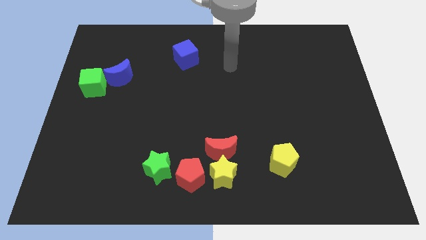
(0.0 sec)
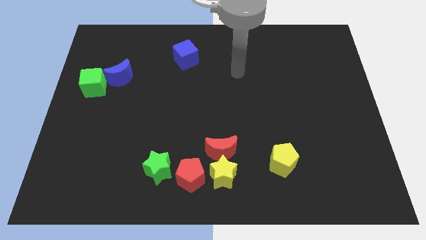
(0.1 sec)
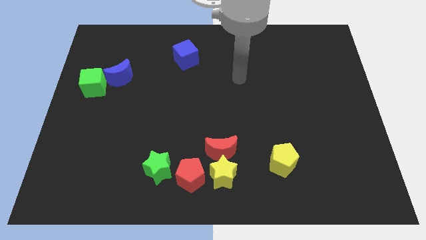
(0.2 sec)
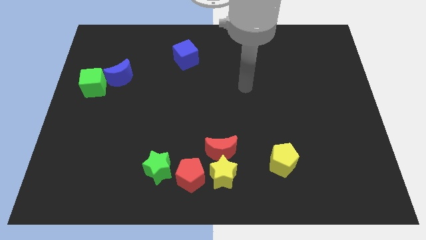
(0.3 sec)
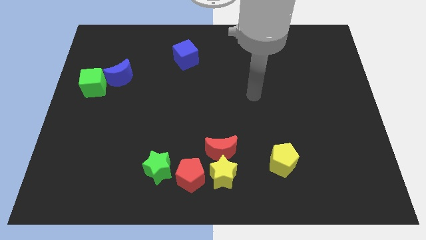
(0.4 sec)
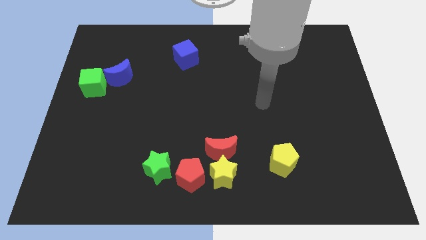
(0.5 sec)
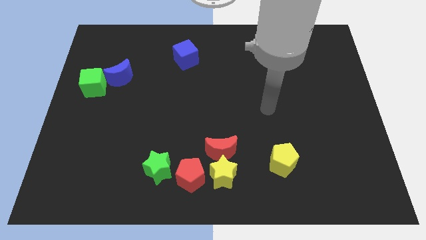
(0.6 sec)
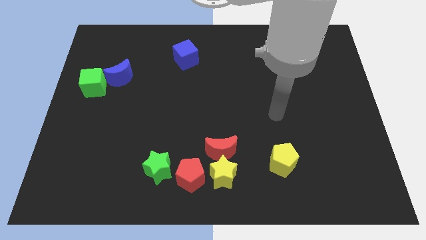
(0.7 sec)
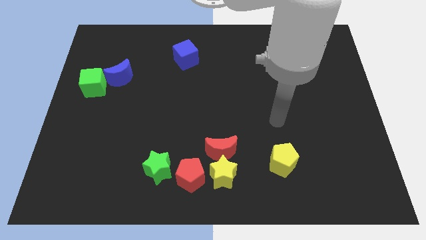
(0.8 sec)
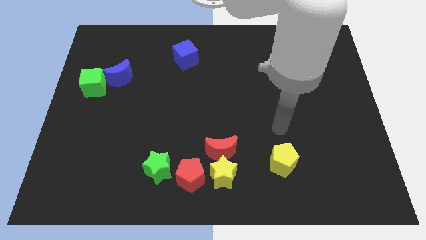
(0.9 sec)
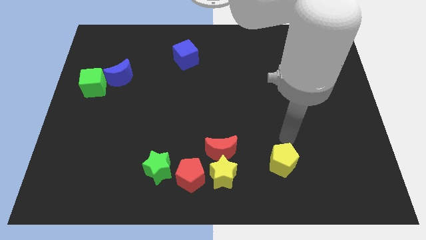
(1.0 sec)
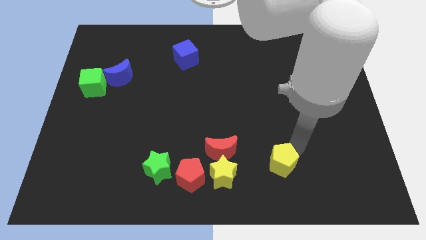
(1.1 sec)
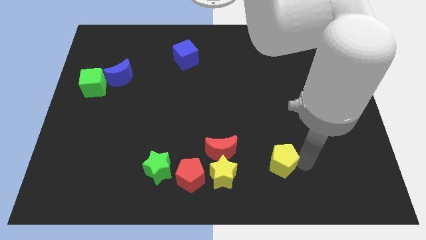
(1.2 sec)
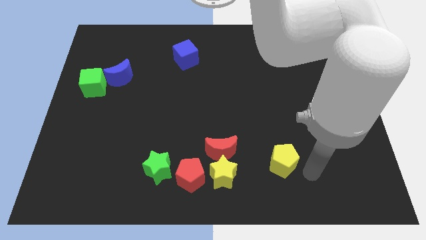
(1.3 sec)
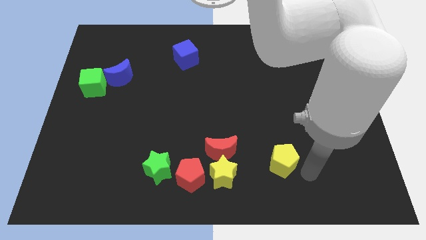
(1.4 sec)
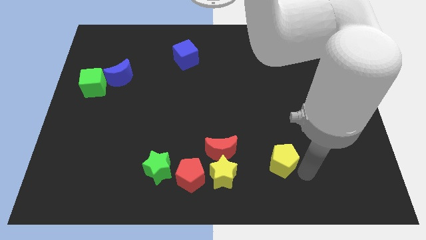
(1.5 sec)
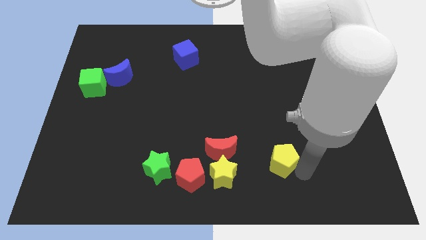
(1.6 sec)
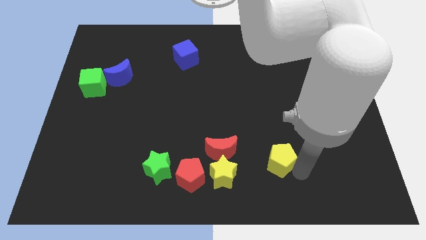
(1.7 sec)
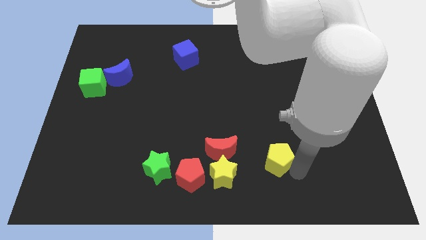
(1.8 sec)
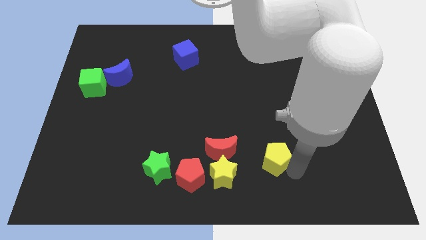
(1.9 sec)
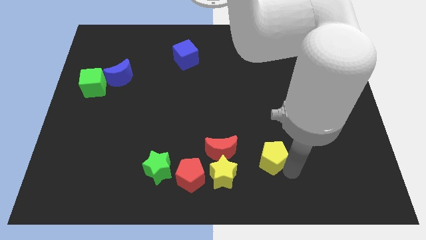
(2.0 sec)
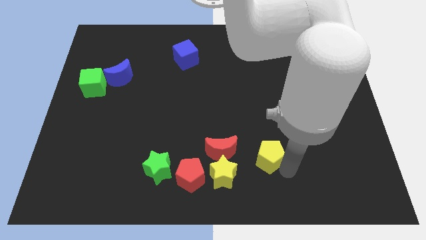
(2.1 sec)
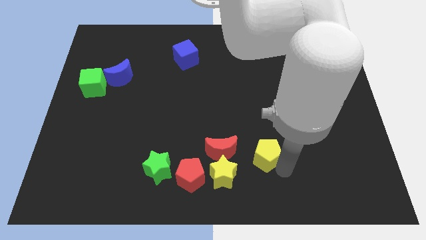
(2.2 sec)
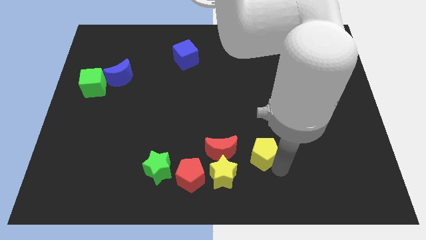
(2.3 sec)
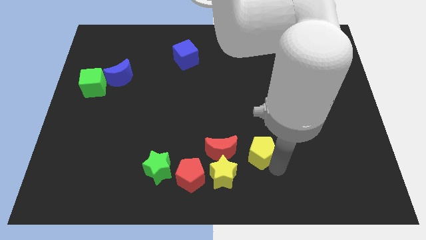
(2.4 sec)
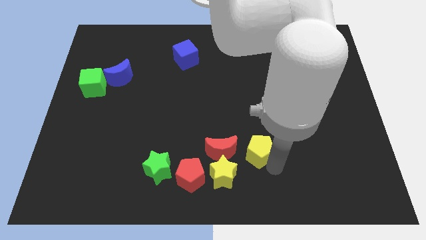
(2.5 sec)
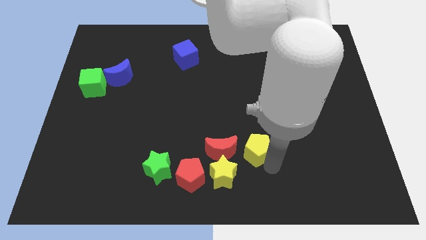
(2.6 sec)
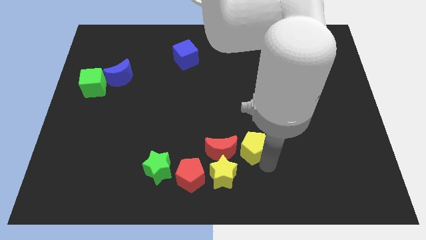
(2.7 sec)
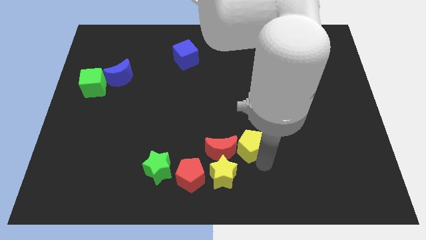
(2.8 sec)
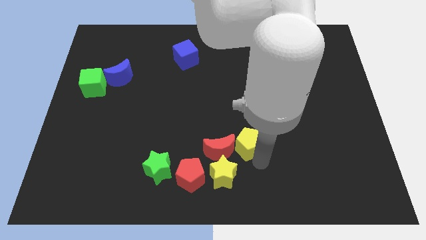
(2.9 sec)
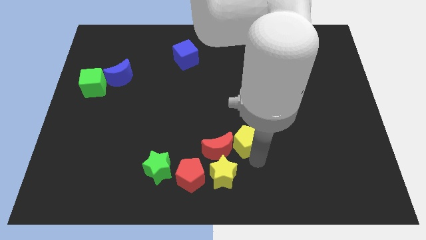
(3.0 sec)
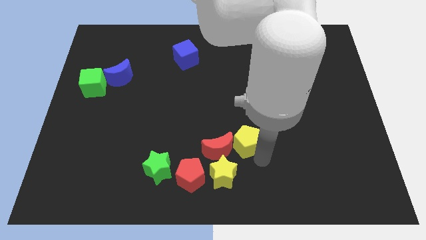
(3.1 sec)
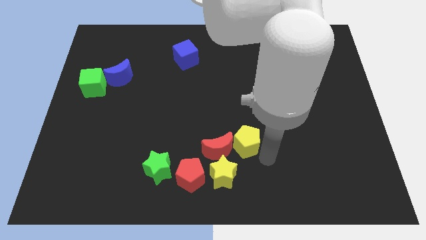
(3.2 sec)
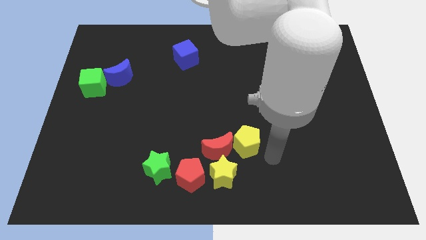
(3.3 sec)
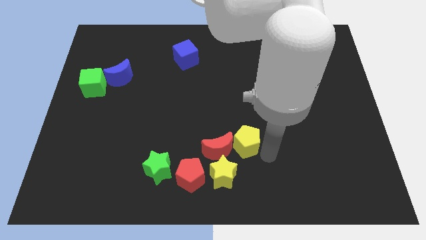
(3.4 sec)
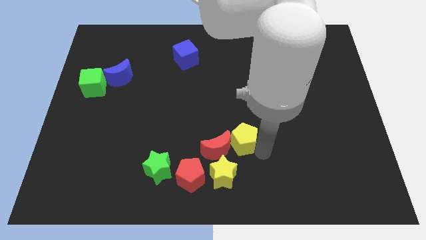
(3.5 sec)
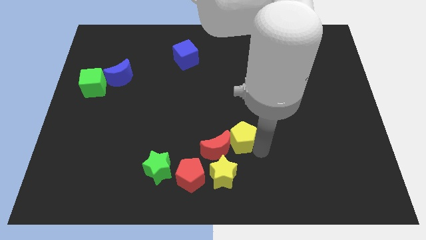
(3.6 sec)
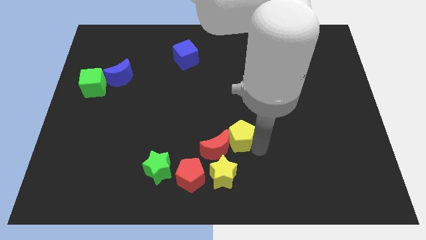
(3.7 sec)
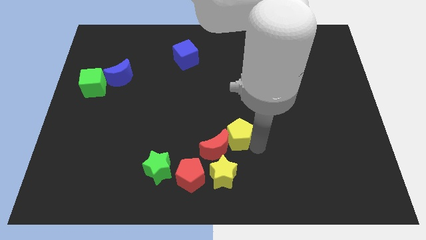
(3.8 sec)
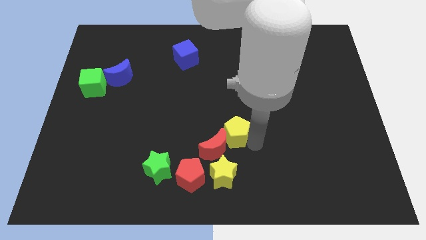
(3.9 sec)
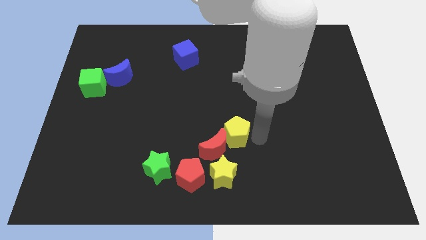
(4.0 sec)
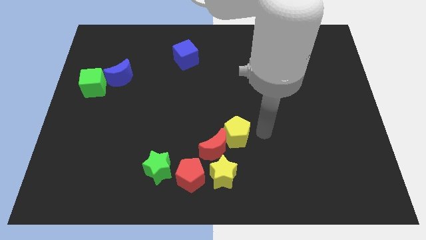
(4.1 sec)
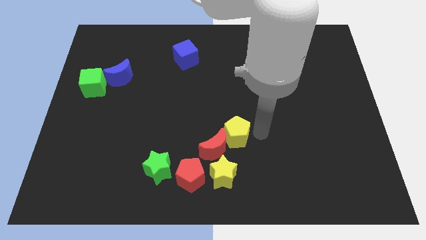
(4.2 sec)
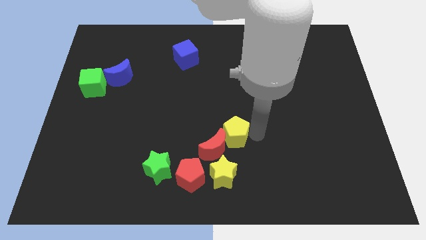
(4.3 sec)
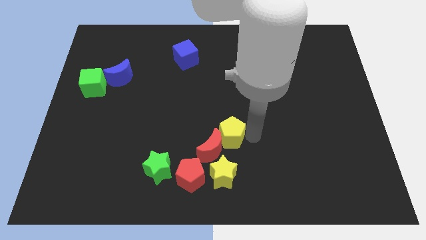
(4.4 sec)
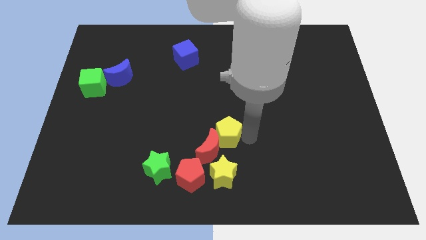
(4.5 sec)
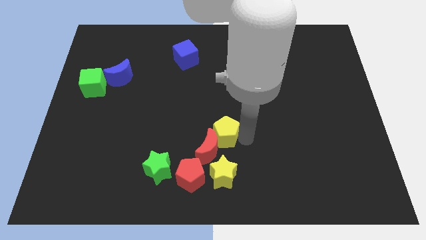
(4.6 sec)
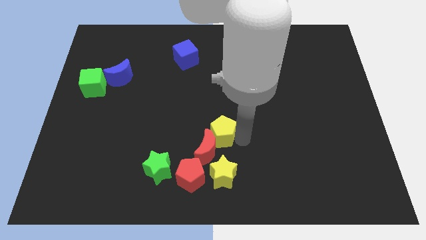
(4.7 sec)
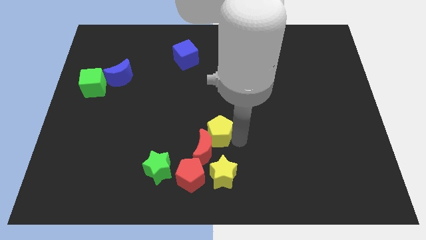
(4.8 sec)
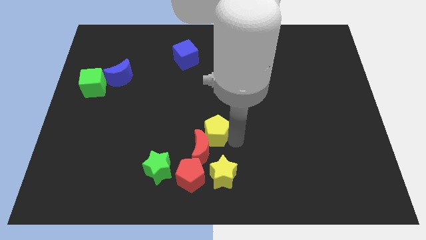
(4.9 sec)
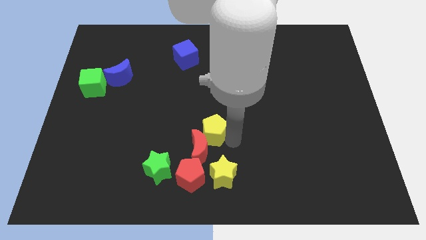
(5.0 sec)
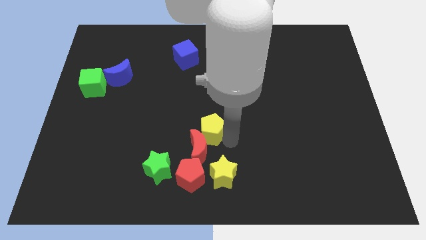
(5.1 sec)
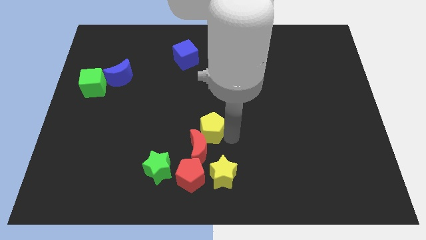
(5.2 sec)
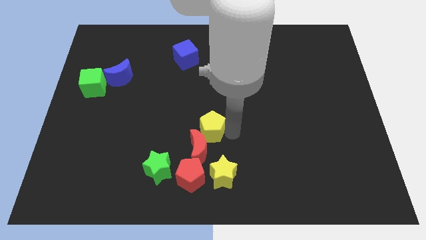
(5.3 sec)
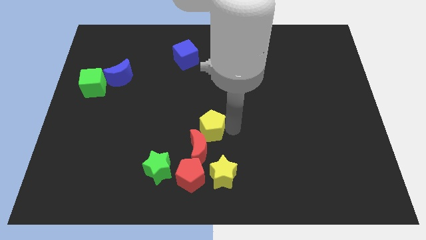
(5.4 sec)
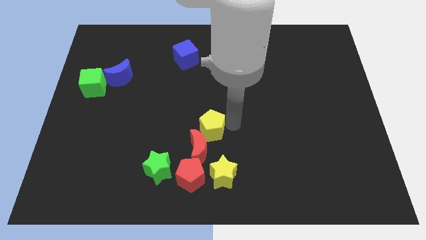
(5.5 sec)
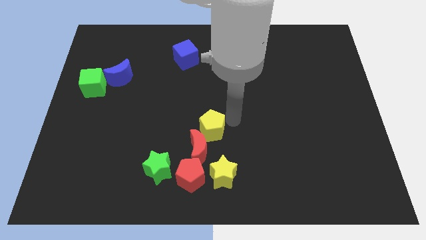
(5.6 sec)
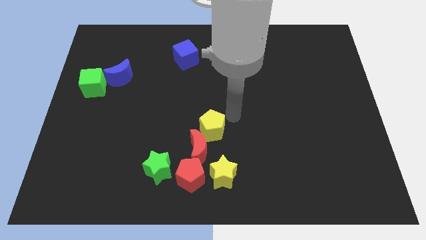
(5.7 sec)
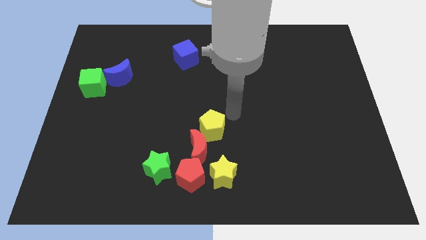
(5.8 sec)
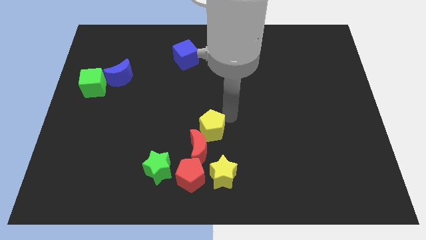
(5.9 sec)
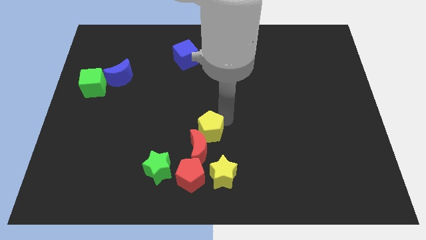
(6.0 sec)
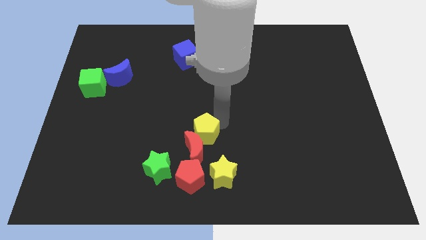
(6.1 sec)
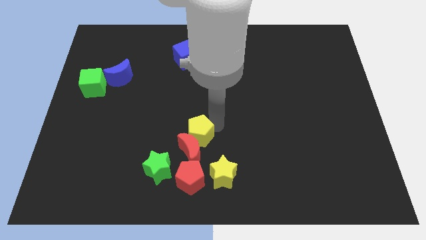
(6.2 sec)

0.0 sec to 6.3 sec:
slide the yellow pentagon to the top left side of the yellow star
